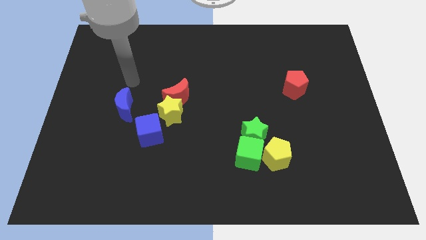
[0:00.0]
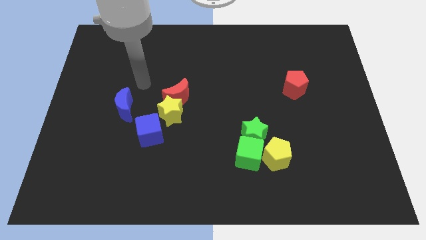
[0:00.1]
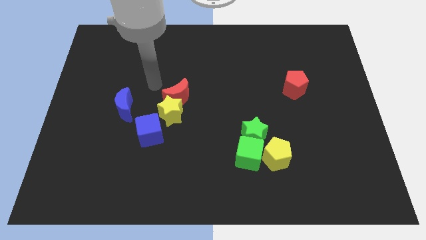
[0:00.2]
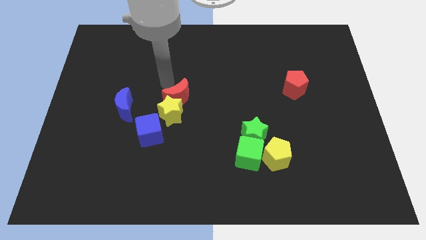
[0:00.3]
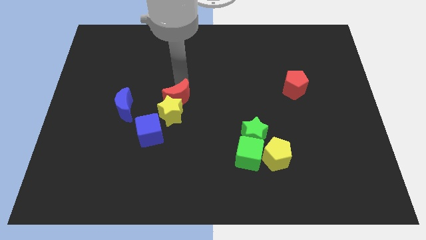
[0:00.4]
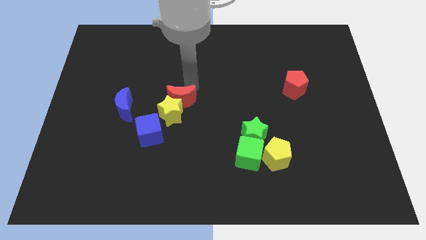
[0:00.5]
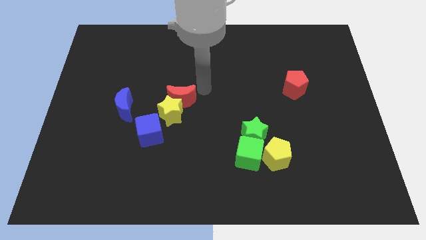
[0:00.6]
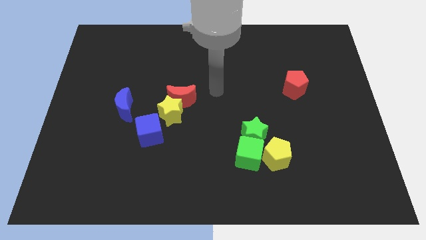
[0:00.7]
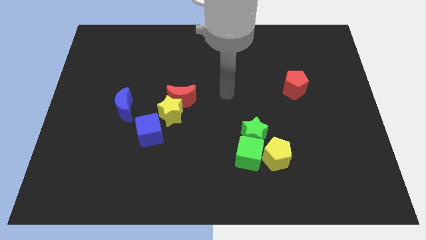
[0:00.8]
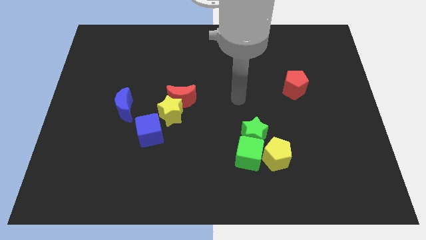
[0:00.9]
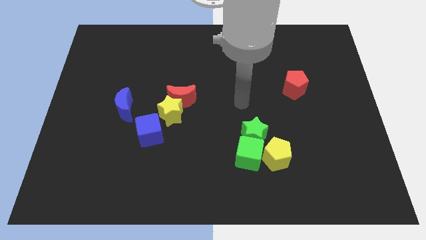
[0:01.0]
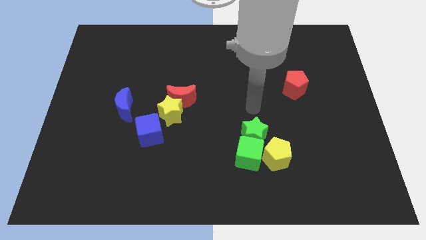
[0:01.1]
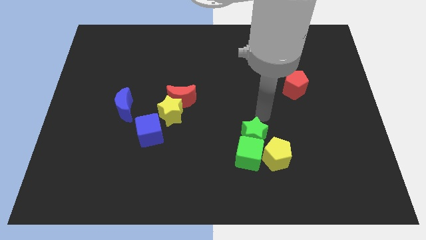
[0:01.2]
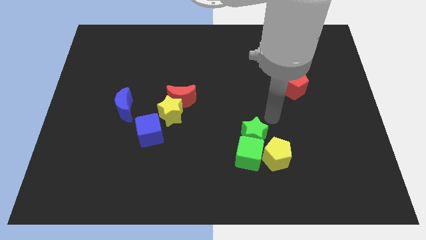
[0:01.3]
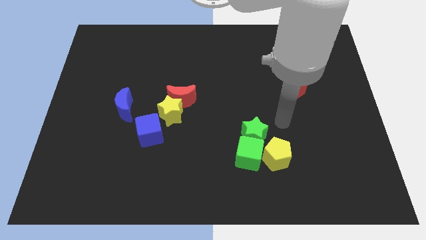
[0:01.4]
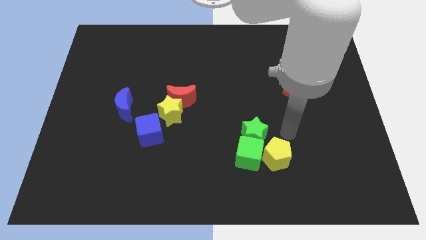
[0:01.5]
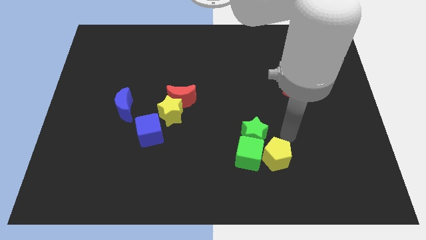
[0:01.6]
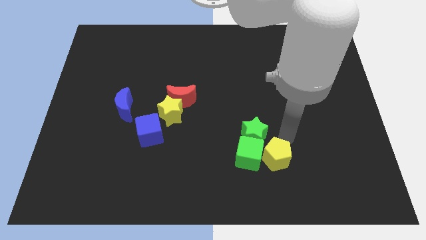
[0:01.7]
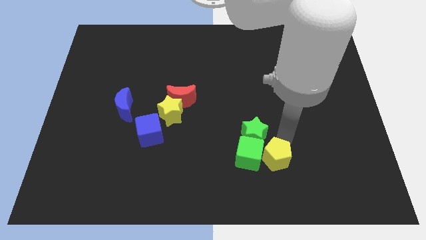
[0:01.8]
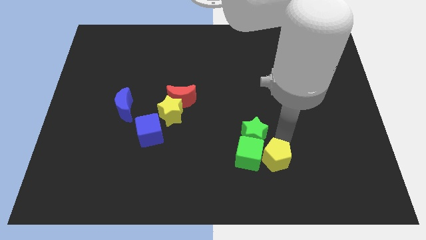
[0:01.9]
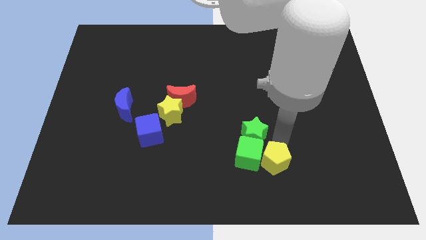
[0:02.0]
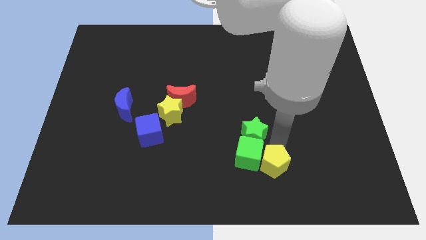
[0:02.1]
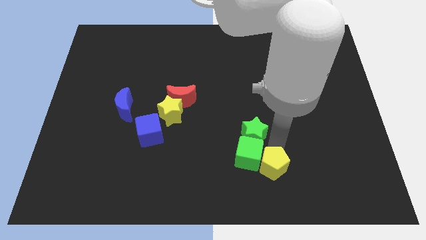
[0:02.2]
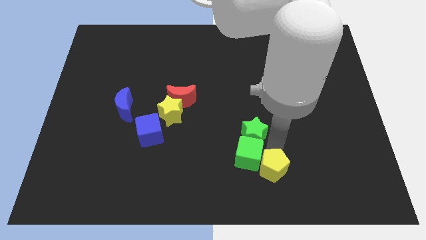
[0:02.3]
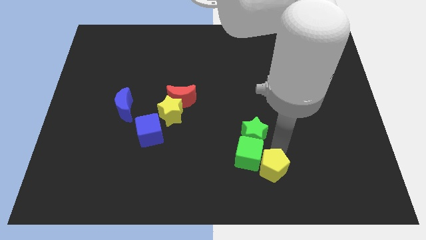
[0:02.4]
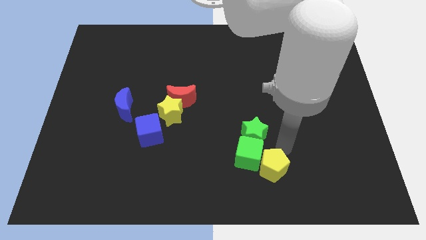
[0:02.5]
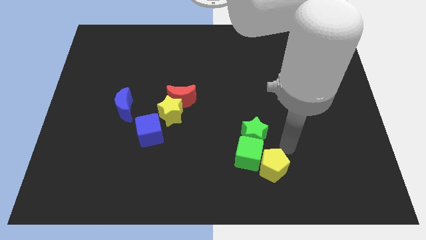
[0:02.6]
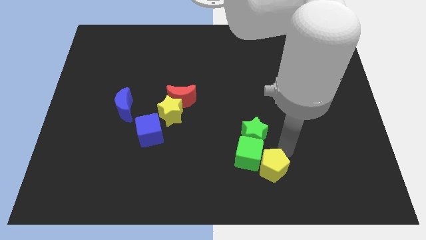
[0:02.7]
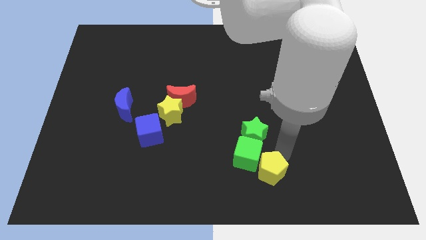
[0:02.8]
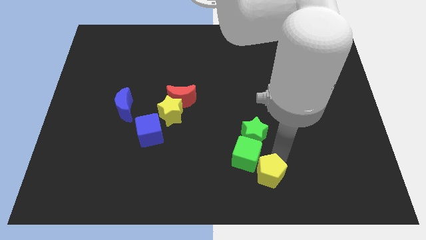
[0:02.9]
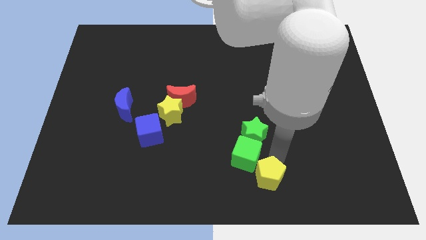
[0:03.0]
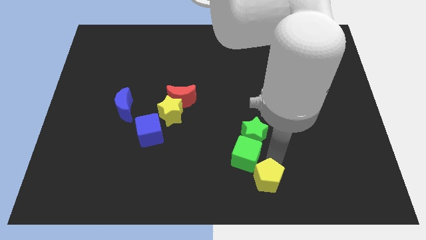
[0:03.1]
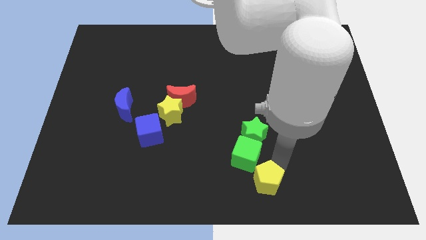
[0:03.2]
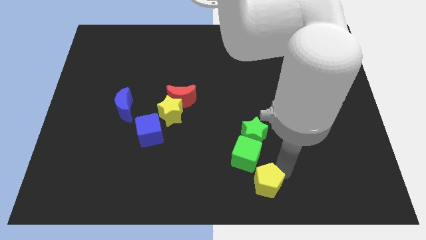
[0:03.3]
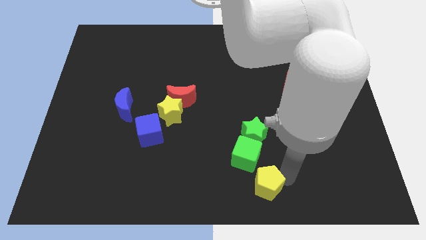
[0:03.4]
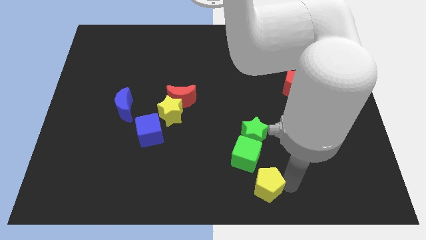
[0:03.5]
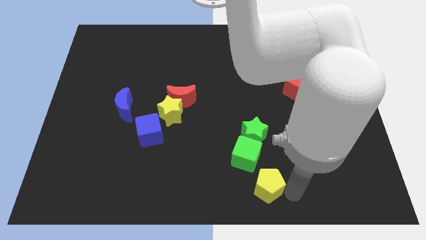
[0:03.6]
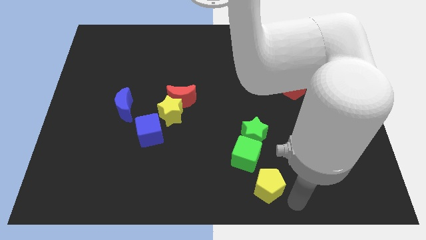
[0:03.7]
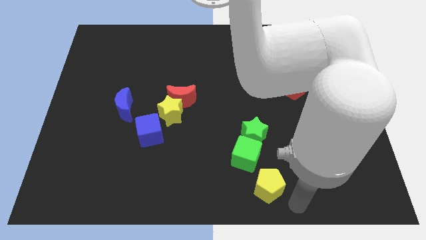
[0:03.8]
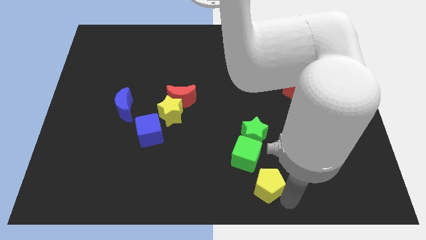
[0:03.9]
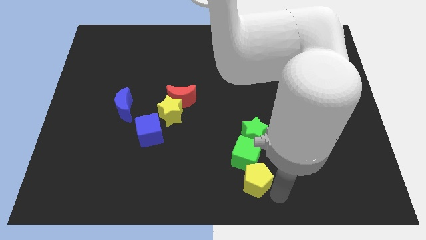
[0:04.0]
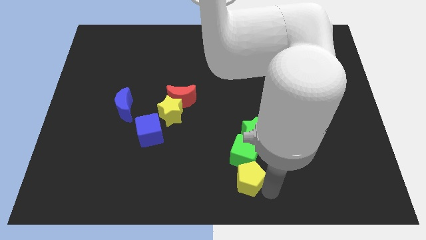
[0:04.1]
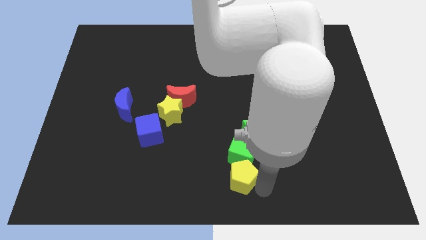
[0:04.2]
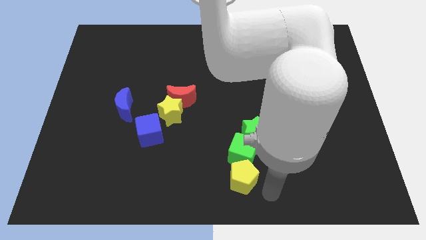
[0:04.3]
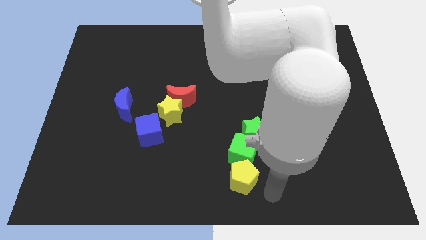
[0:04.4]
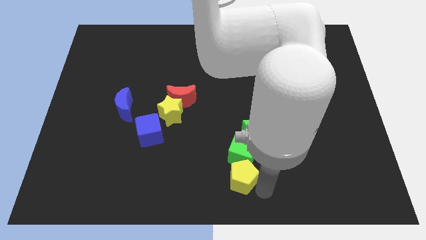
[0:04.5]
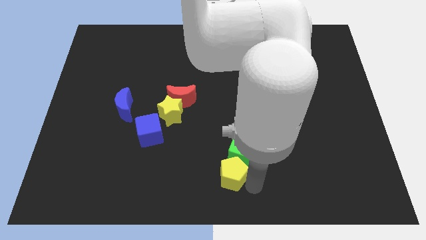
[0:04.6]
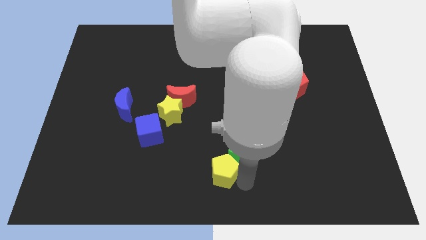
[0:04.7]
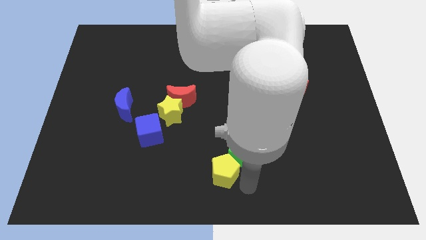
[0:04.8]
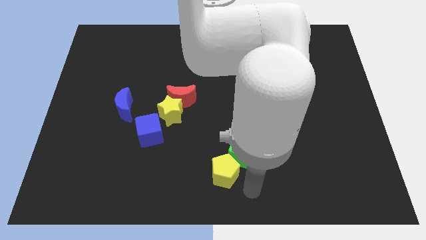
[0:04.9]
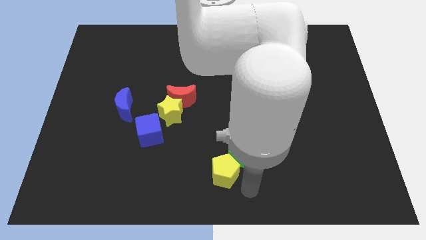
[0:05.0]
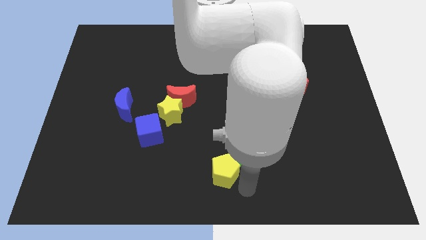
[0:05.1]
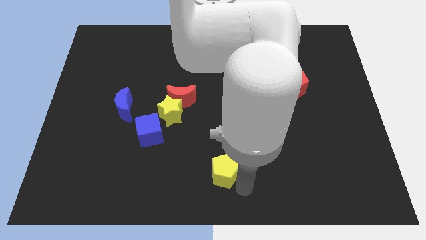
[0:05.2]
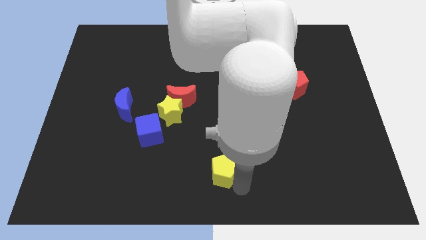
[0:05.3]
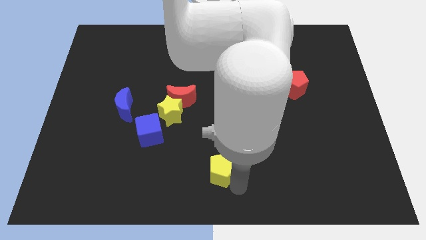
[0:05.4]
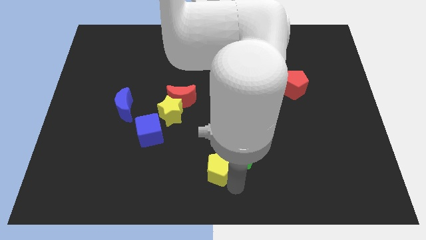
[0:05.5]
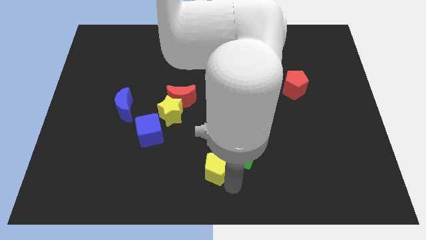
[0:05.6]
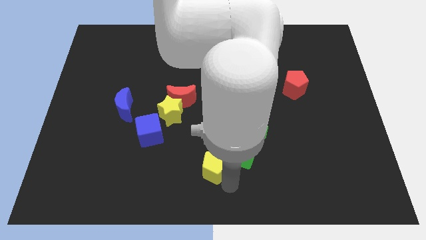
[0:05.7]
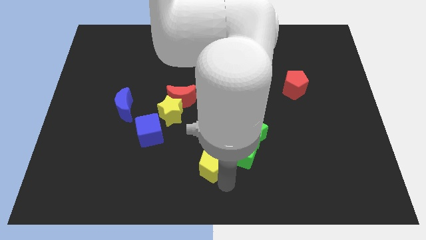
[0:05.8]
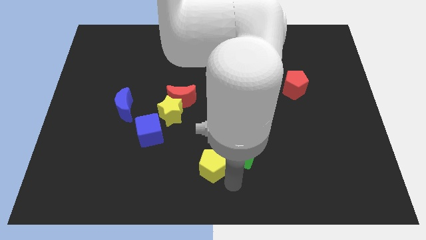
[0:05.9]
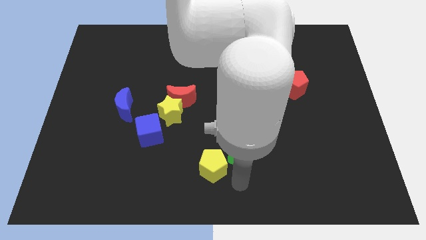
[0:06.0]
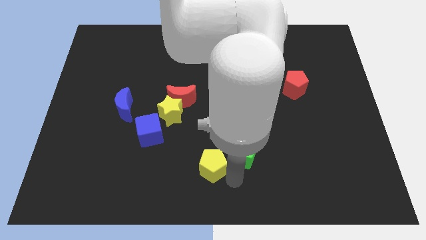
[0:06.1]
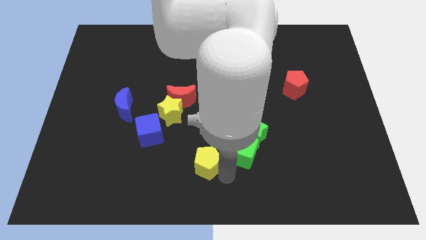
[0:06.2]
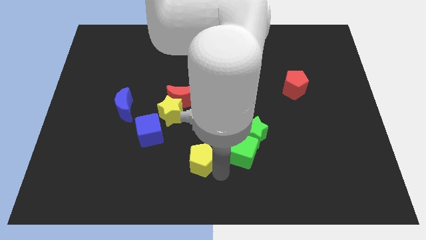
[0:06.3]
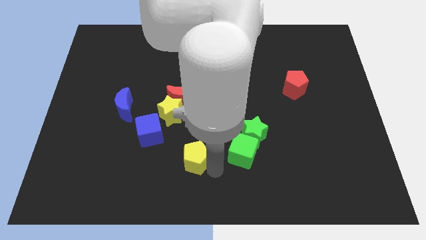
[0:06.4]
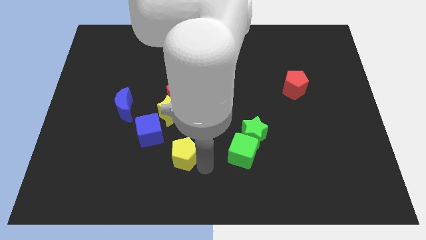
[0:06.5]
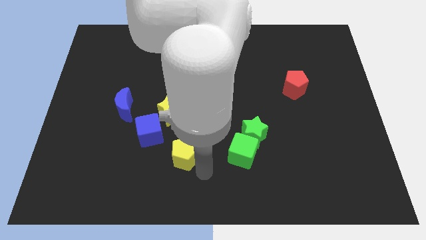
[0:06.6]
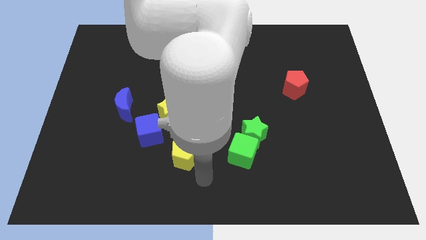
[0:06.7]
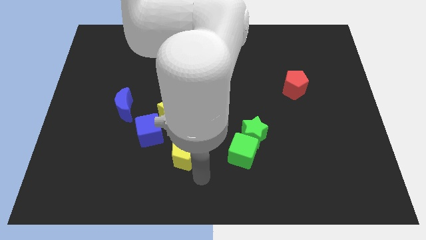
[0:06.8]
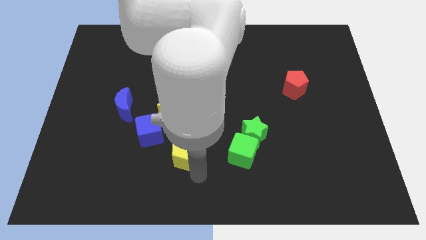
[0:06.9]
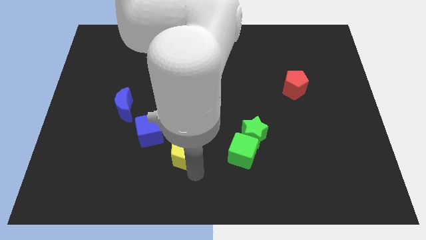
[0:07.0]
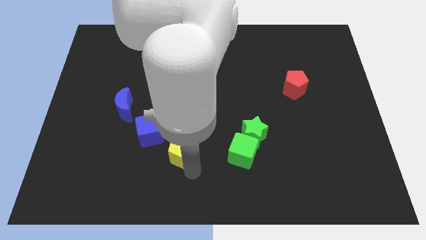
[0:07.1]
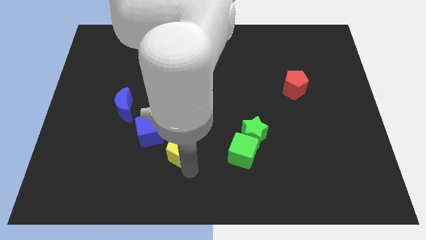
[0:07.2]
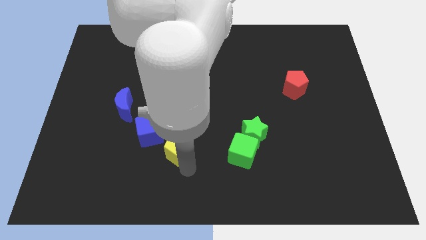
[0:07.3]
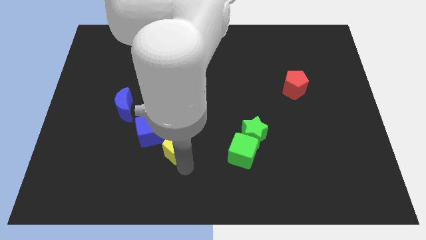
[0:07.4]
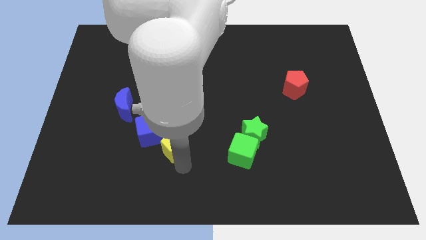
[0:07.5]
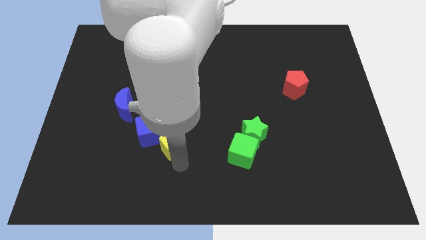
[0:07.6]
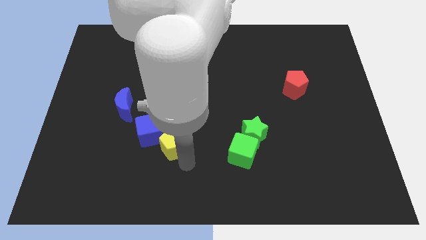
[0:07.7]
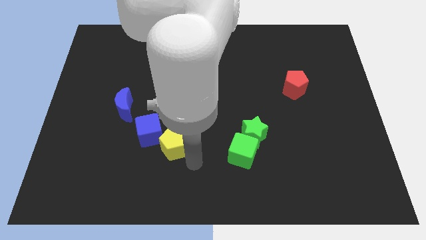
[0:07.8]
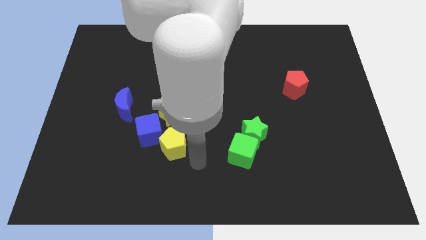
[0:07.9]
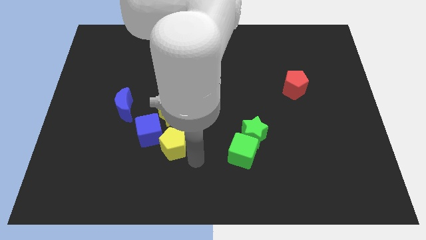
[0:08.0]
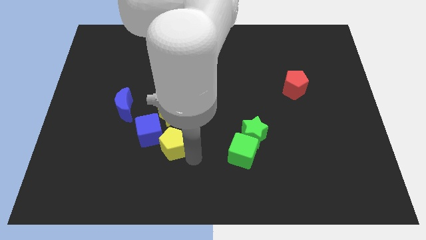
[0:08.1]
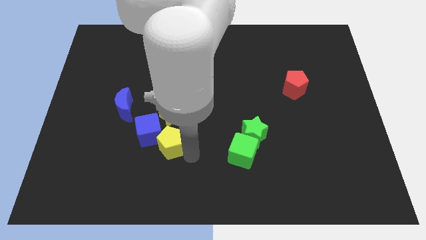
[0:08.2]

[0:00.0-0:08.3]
push the yellow pentagon towards the blue cube
